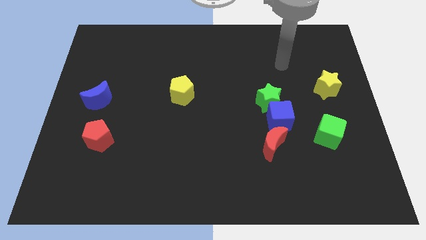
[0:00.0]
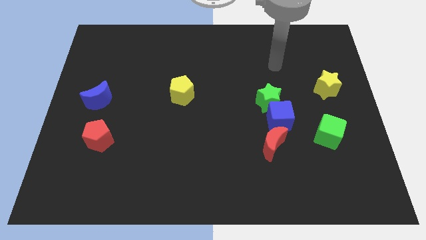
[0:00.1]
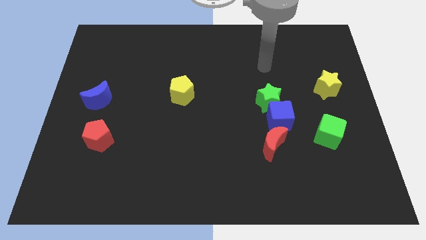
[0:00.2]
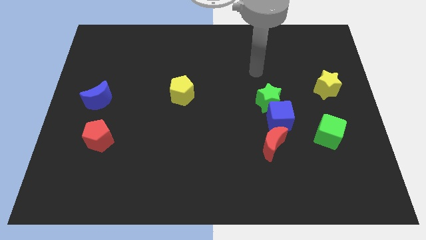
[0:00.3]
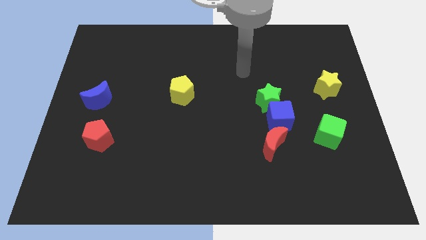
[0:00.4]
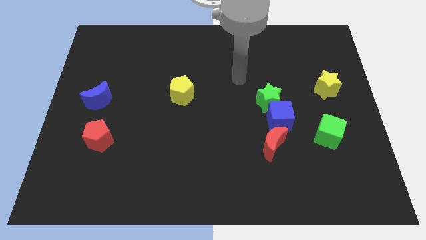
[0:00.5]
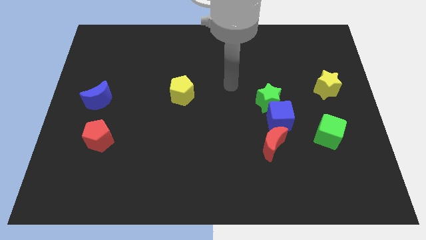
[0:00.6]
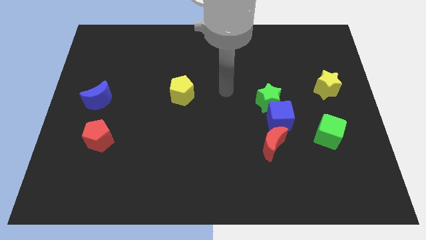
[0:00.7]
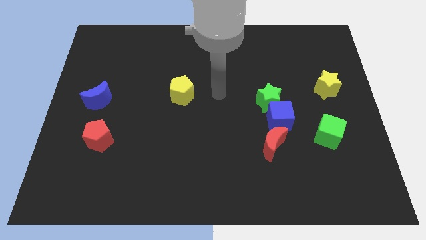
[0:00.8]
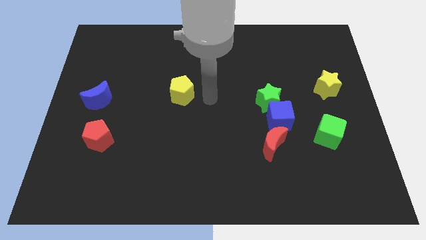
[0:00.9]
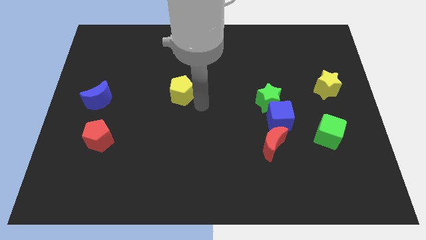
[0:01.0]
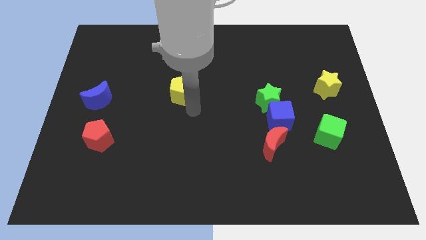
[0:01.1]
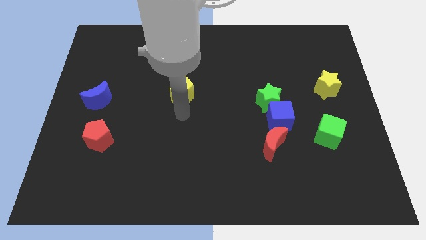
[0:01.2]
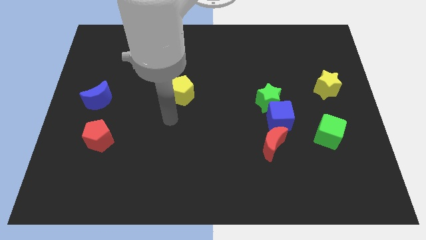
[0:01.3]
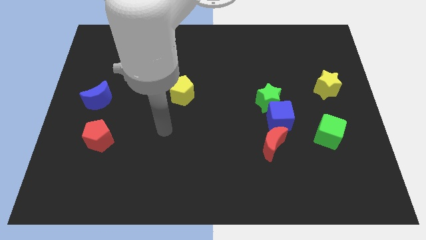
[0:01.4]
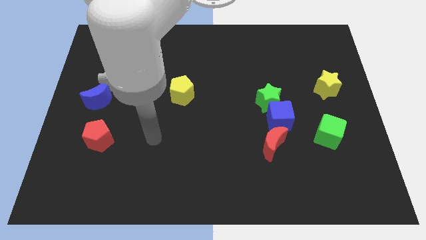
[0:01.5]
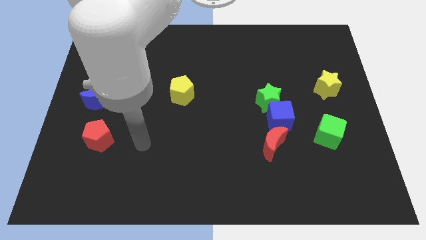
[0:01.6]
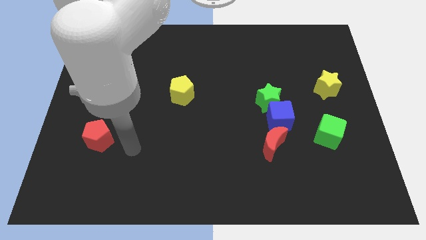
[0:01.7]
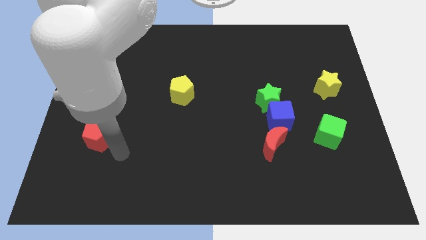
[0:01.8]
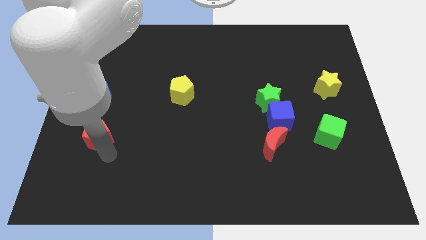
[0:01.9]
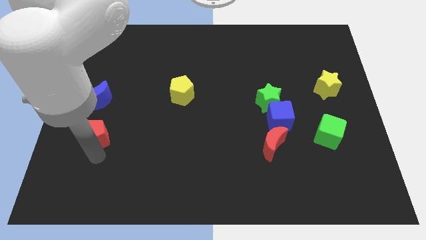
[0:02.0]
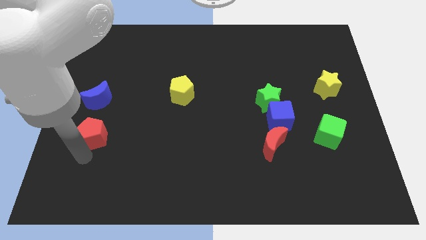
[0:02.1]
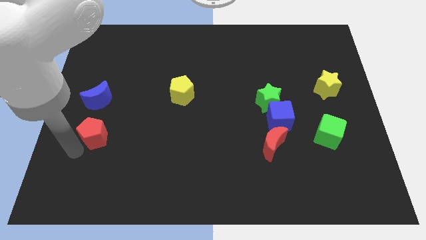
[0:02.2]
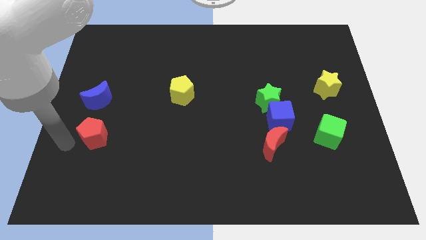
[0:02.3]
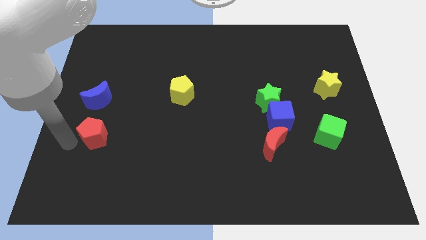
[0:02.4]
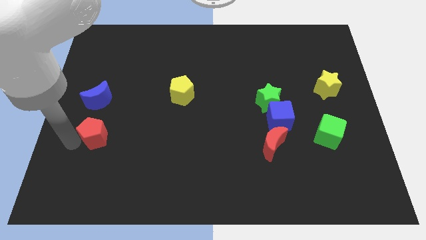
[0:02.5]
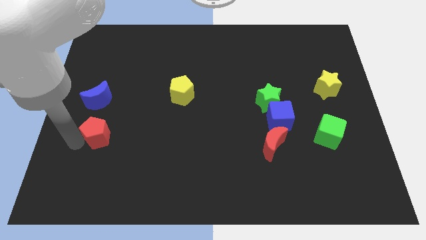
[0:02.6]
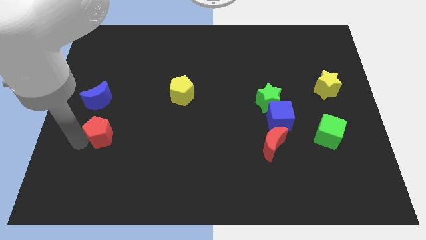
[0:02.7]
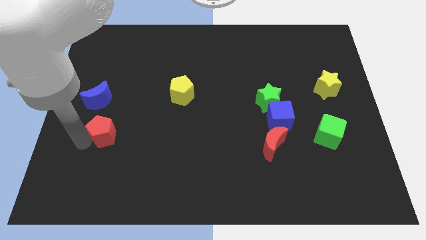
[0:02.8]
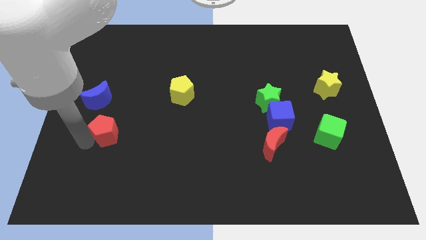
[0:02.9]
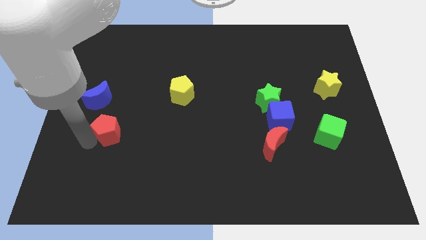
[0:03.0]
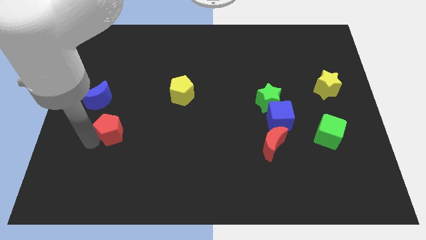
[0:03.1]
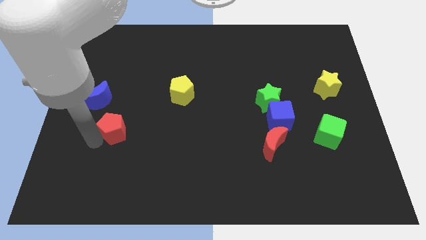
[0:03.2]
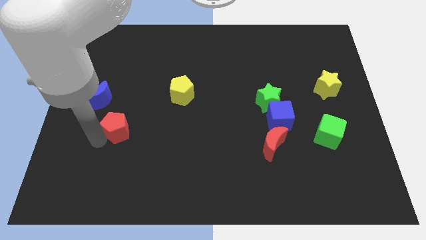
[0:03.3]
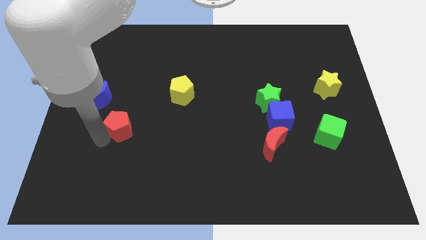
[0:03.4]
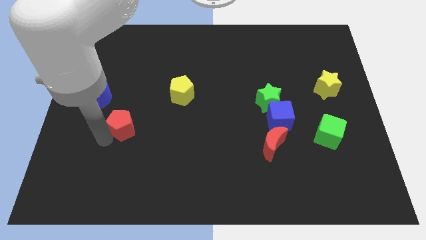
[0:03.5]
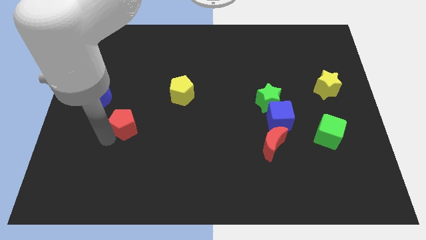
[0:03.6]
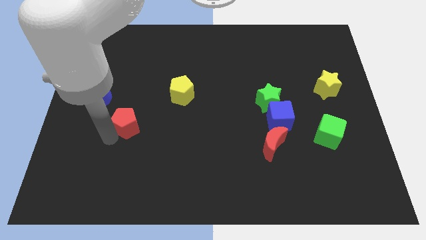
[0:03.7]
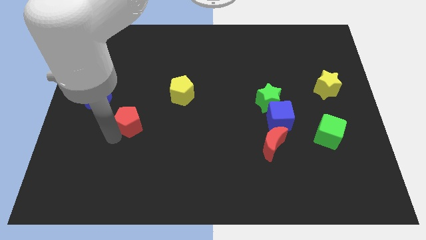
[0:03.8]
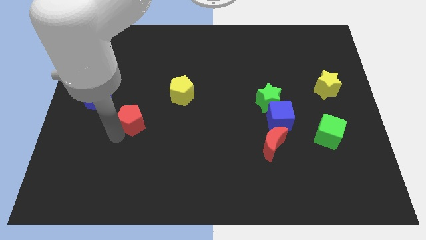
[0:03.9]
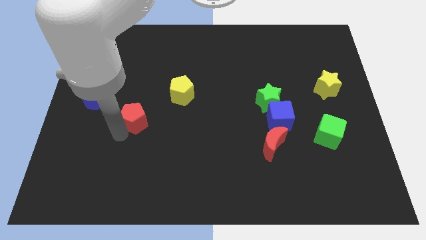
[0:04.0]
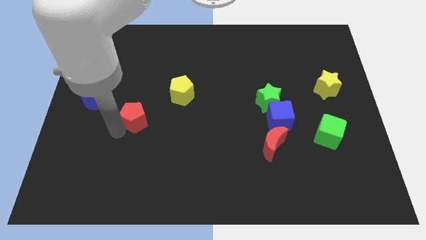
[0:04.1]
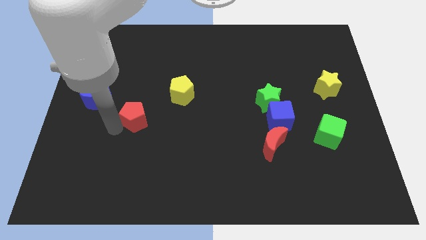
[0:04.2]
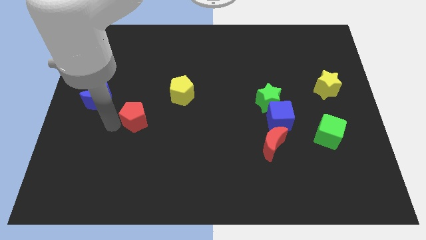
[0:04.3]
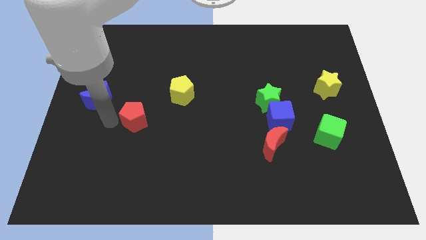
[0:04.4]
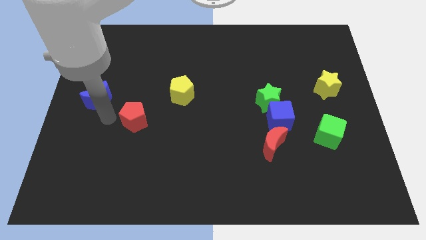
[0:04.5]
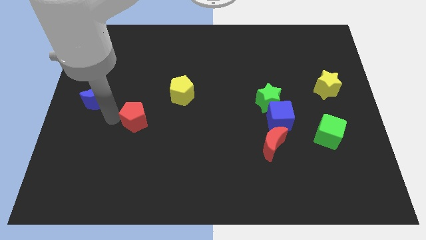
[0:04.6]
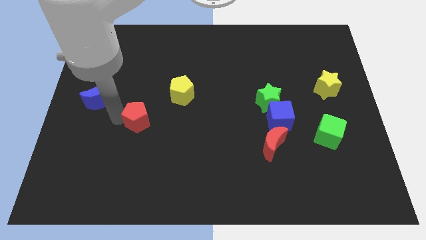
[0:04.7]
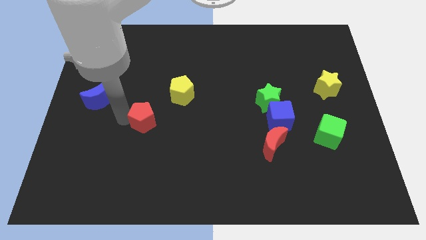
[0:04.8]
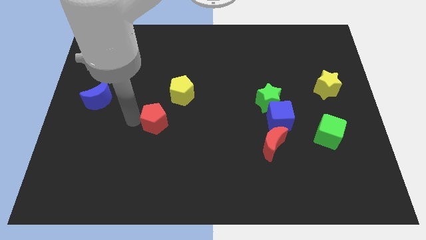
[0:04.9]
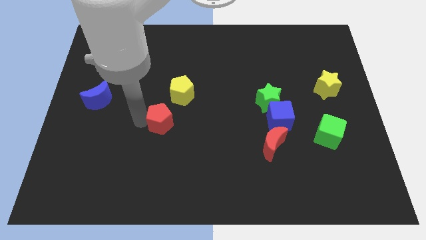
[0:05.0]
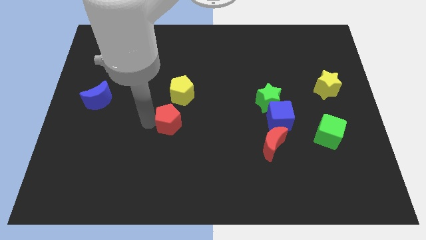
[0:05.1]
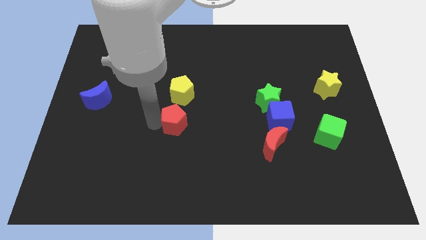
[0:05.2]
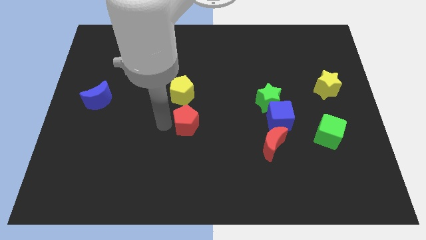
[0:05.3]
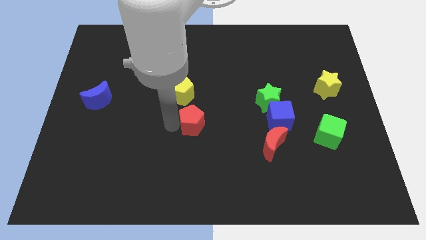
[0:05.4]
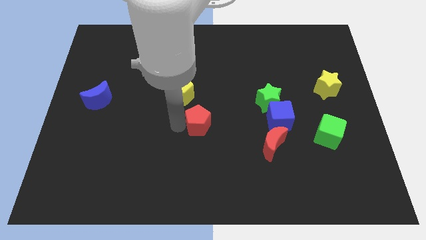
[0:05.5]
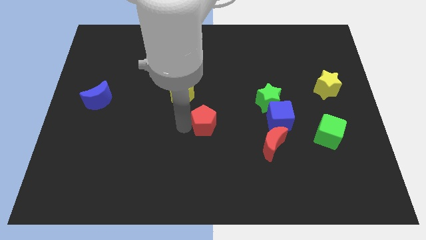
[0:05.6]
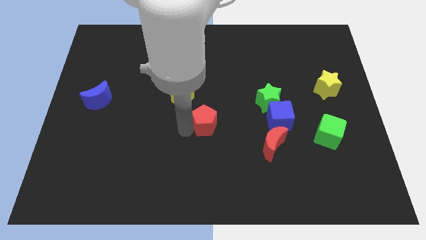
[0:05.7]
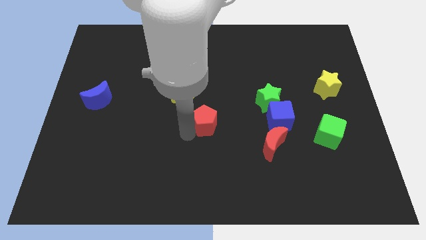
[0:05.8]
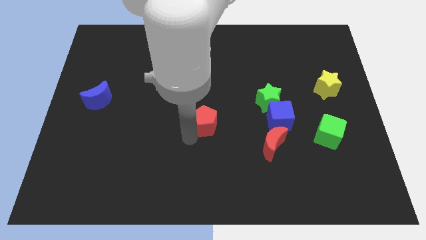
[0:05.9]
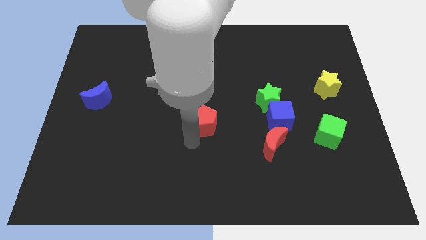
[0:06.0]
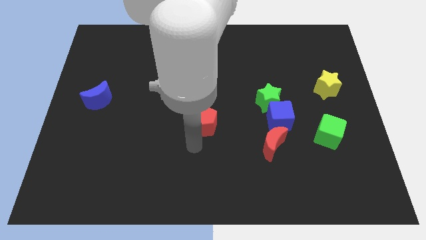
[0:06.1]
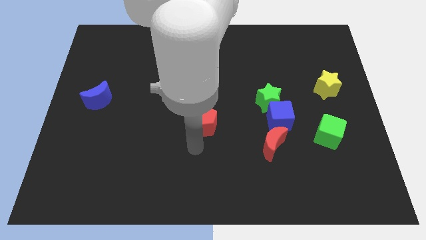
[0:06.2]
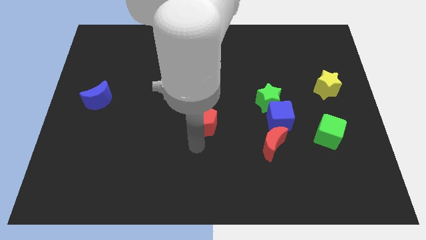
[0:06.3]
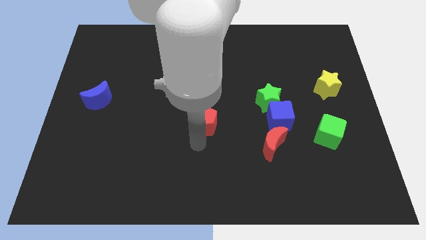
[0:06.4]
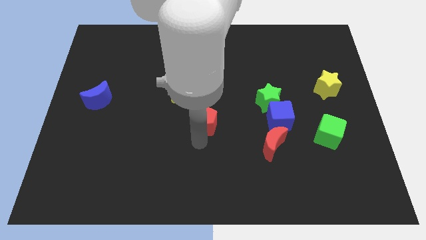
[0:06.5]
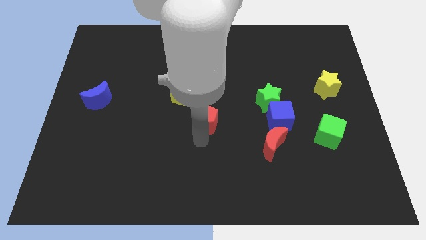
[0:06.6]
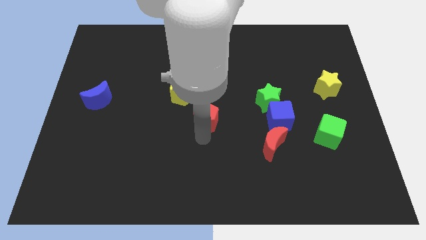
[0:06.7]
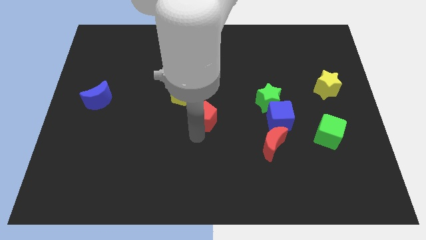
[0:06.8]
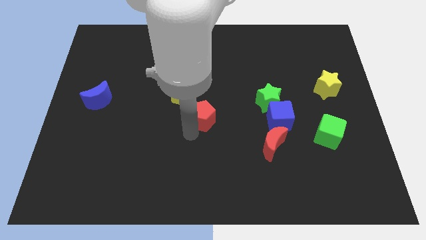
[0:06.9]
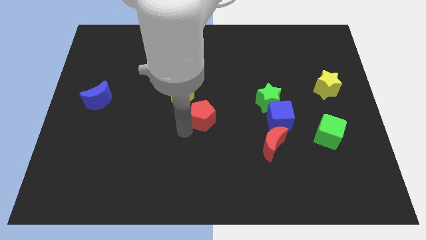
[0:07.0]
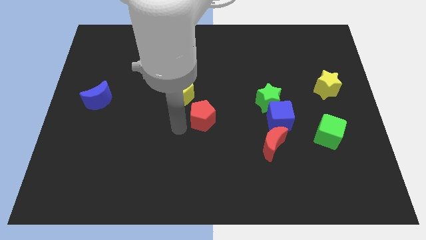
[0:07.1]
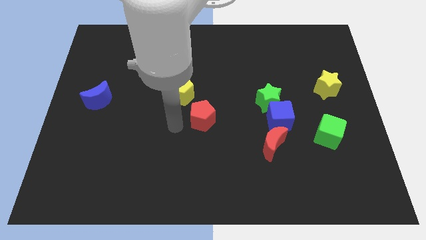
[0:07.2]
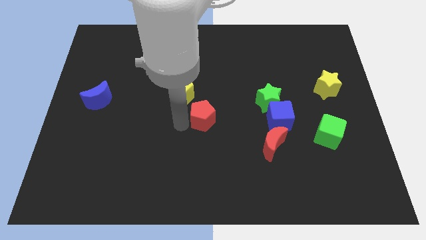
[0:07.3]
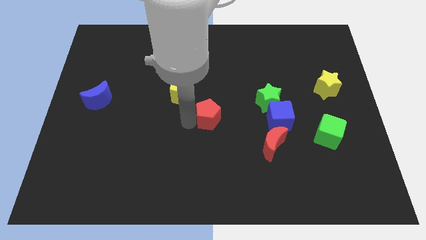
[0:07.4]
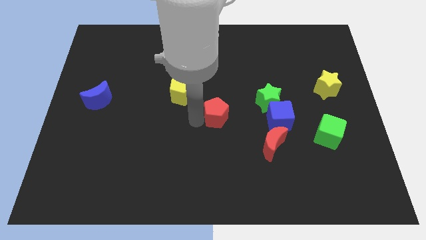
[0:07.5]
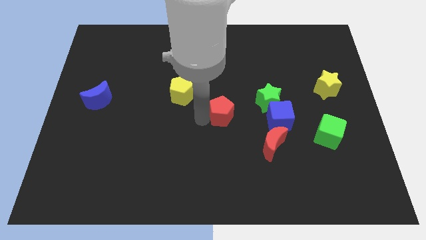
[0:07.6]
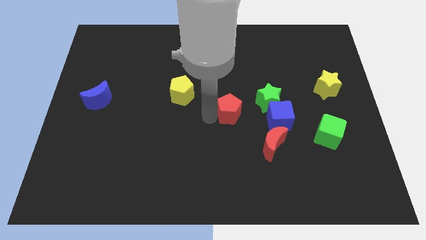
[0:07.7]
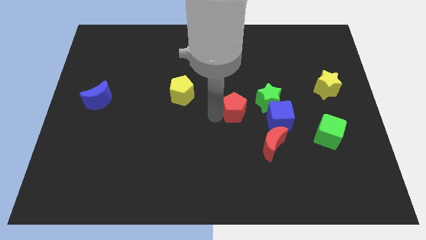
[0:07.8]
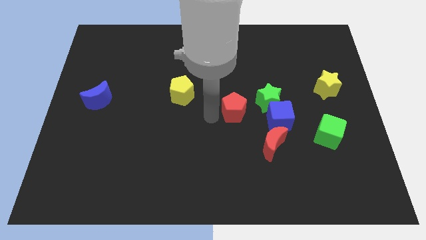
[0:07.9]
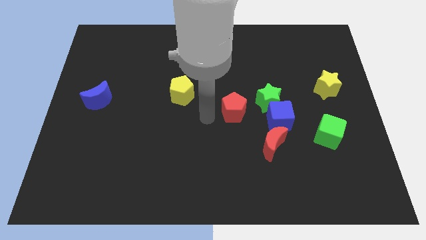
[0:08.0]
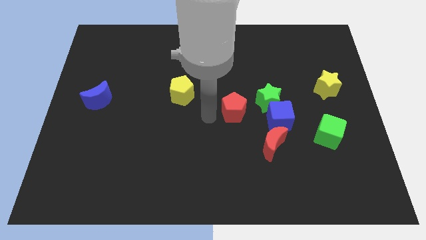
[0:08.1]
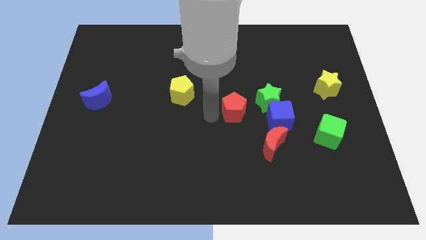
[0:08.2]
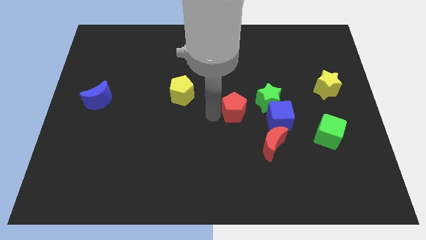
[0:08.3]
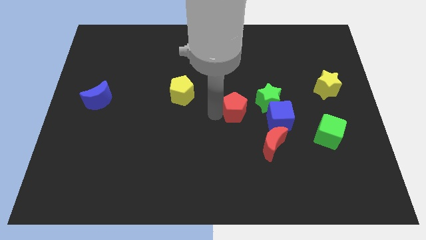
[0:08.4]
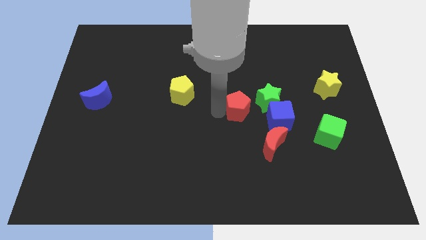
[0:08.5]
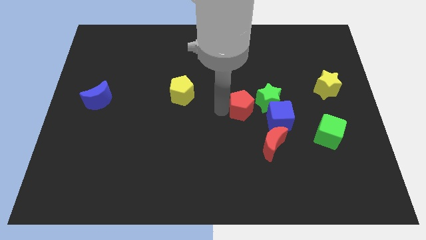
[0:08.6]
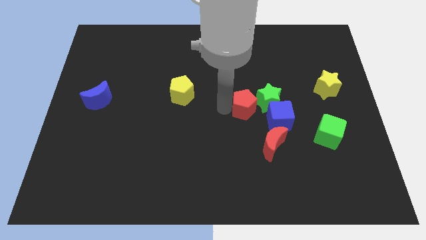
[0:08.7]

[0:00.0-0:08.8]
put the red pentagon to the green star
